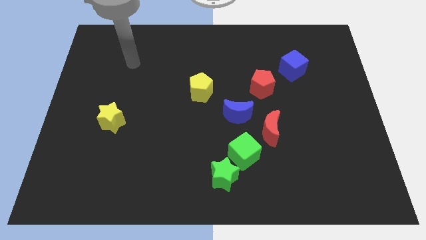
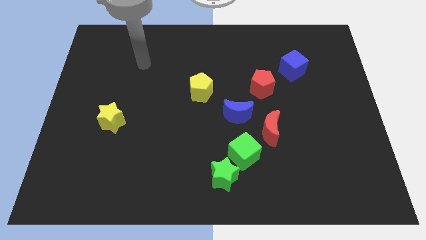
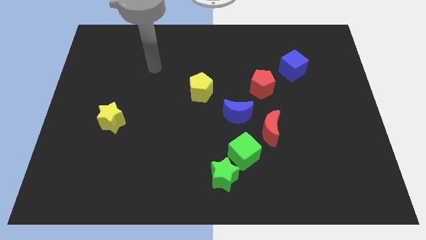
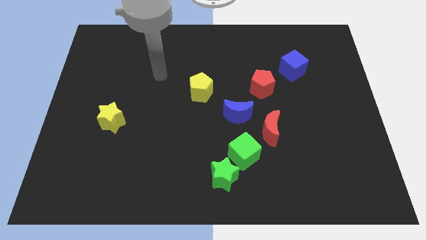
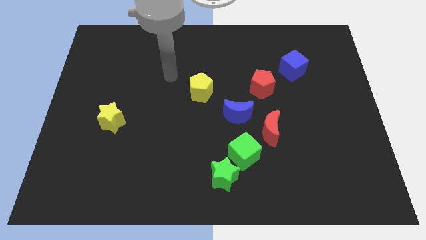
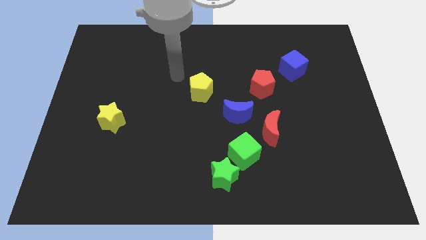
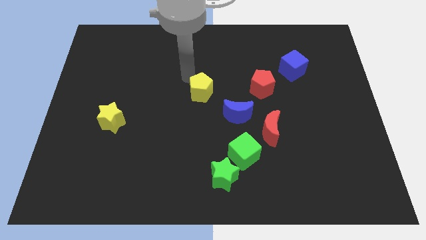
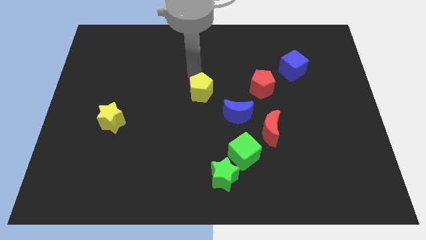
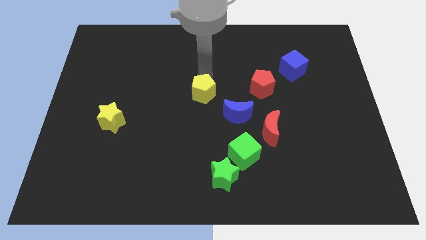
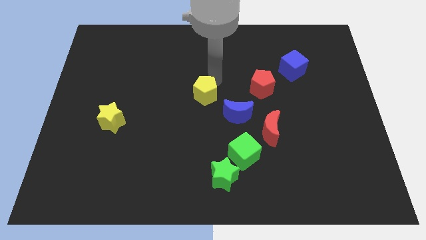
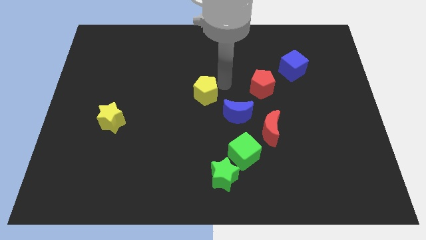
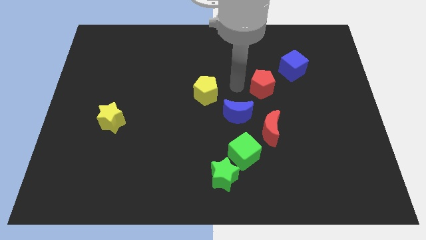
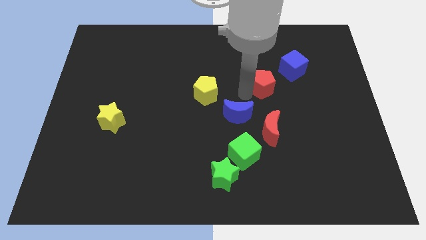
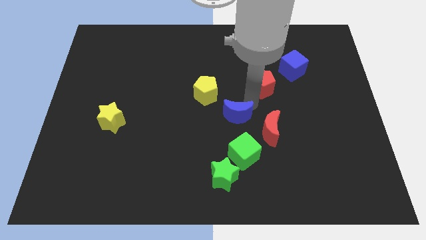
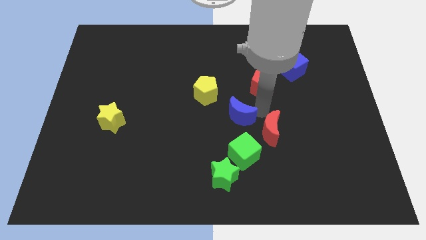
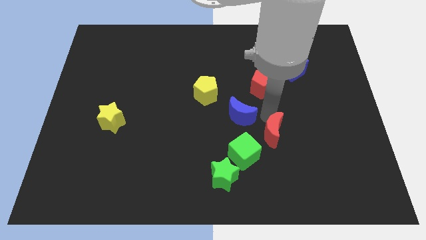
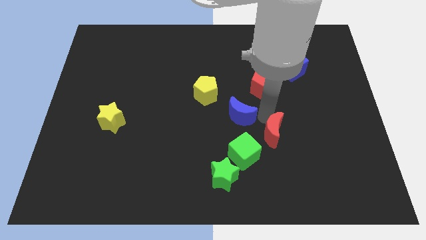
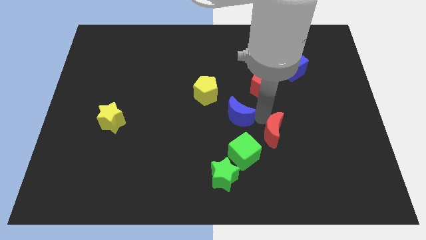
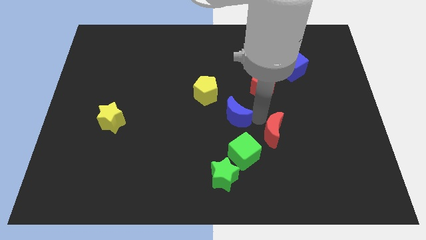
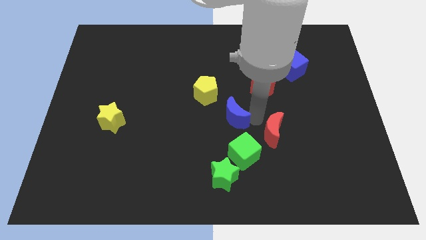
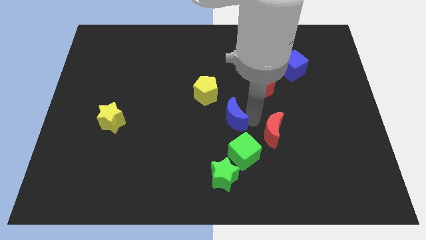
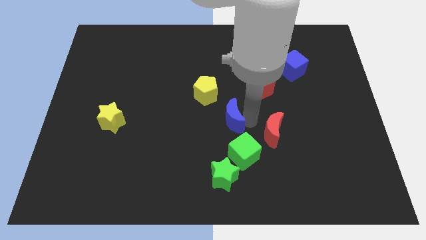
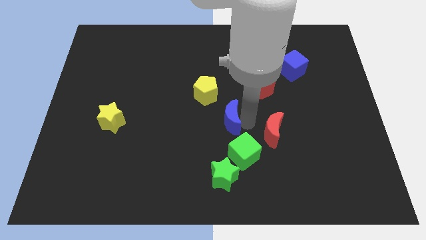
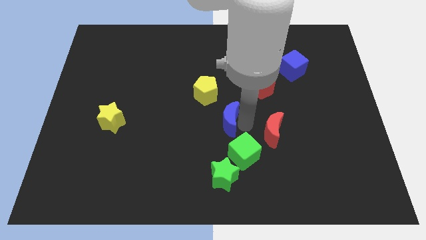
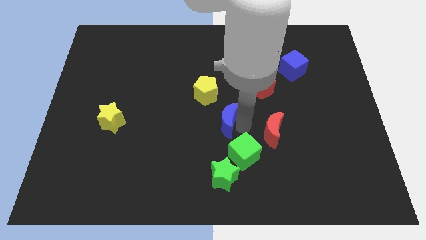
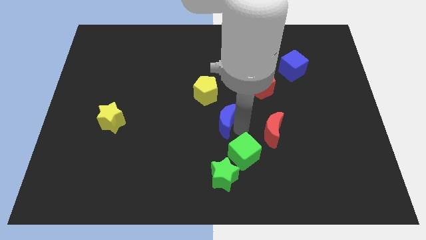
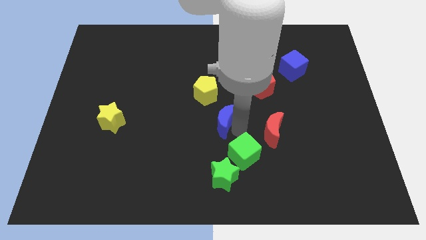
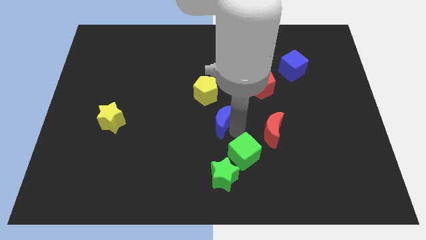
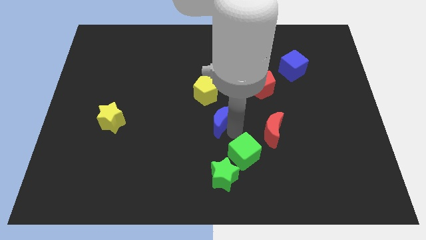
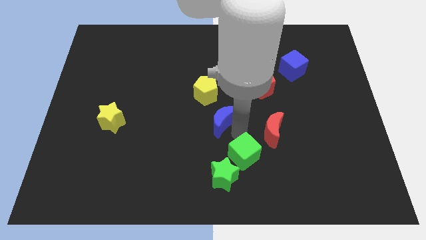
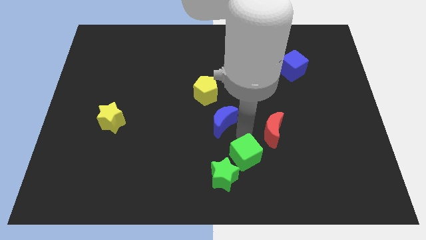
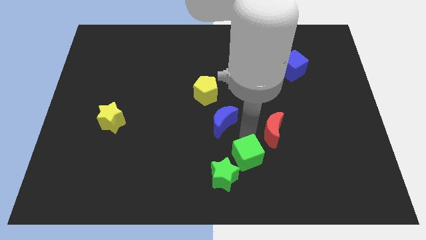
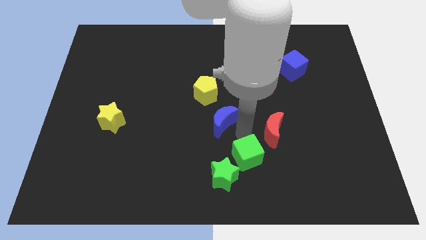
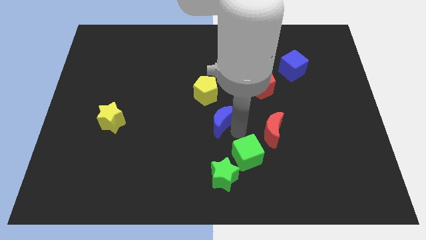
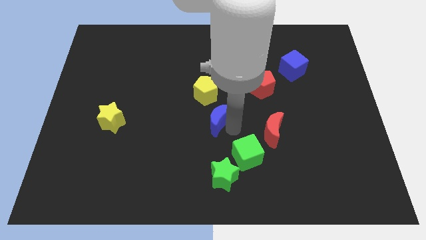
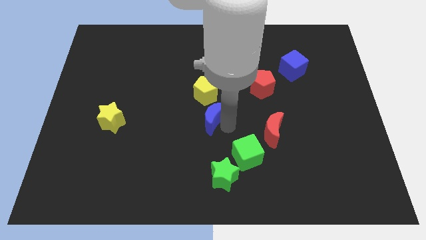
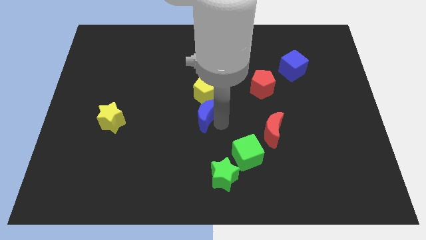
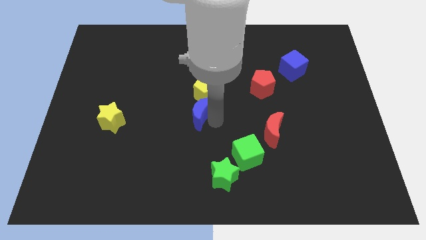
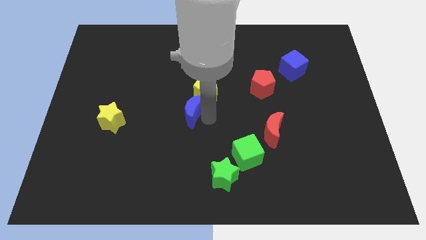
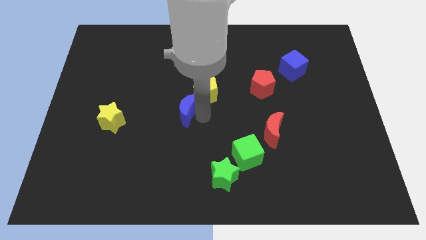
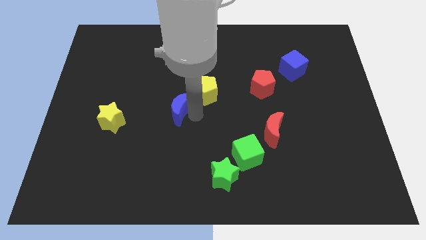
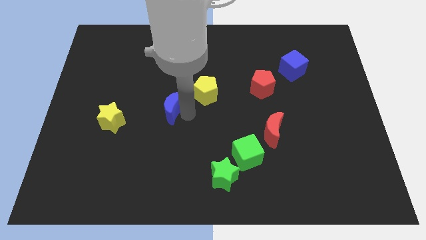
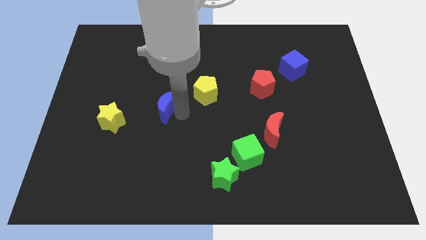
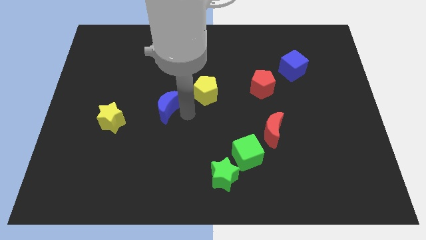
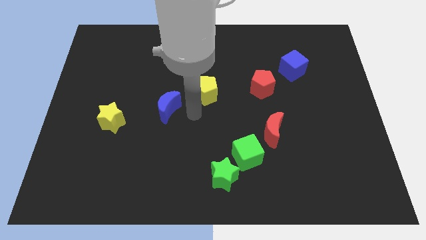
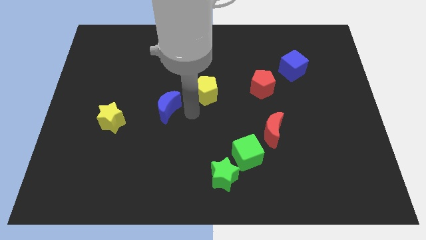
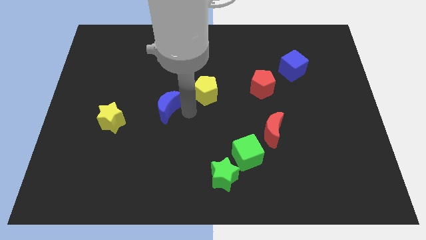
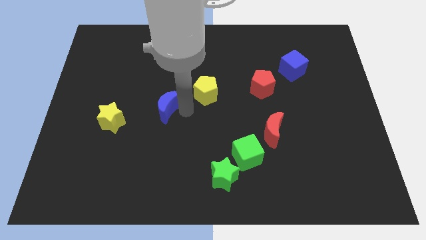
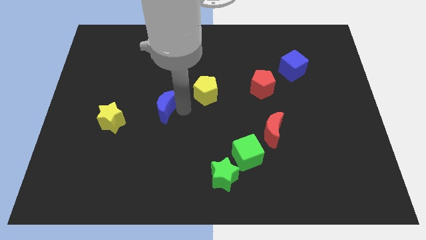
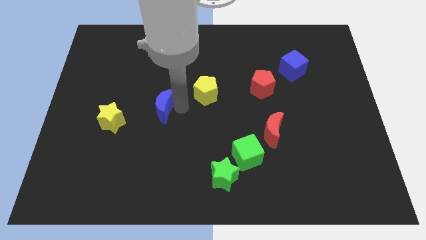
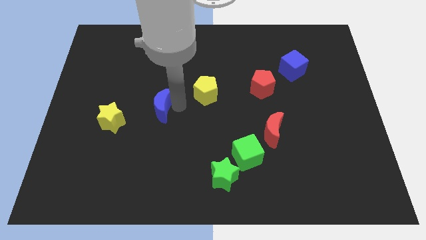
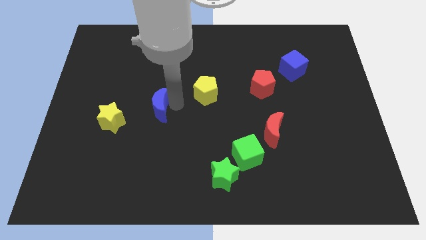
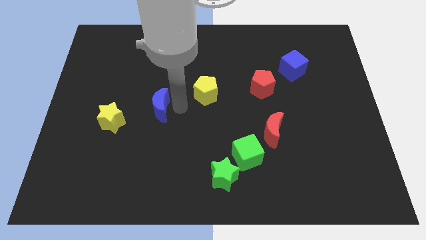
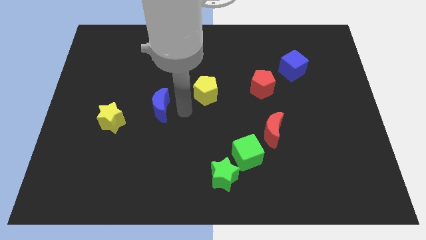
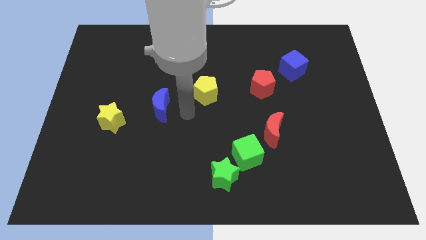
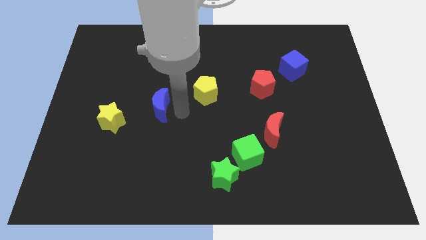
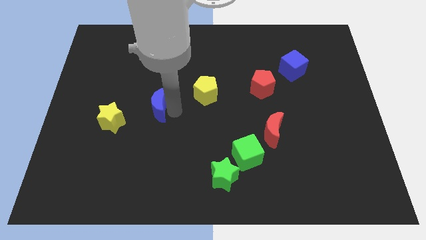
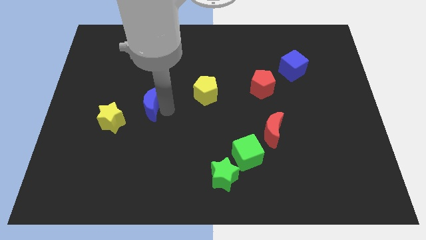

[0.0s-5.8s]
slide the blue moon diagonally up and to the right of the yellow star

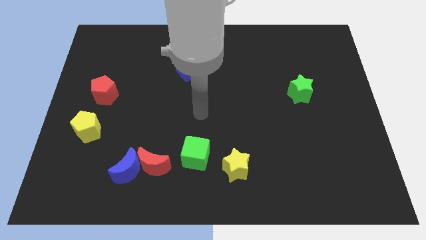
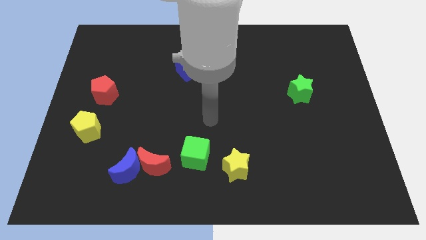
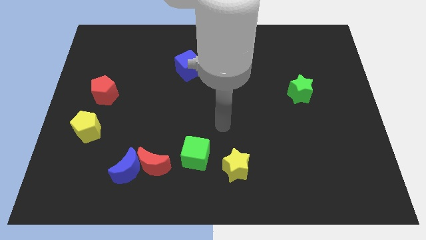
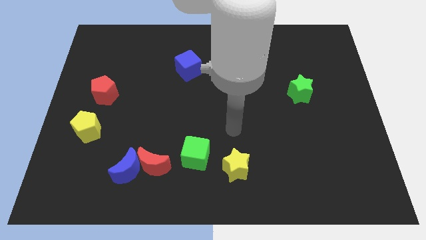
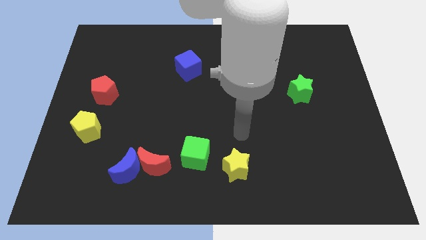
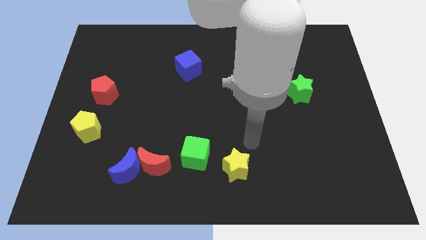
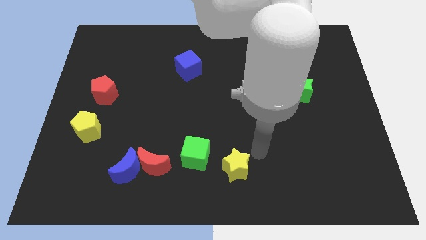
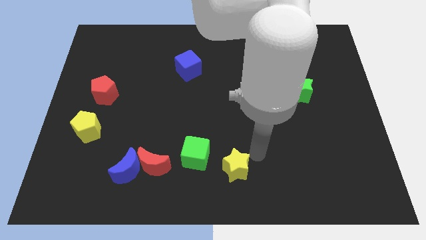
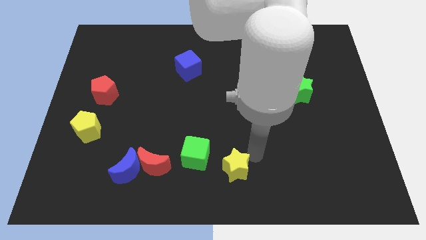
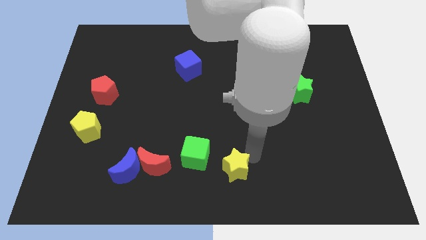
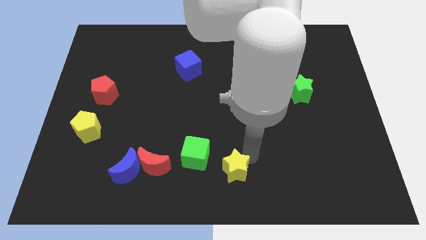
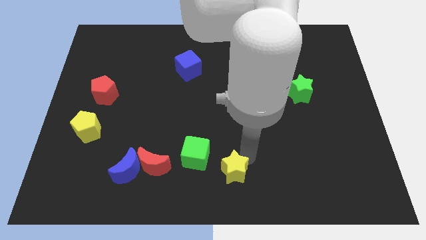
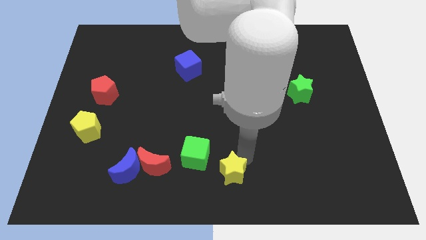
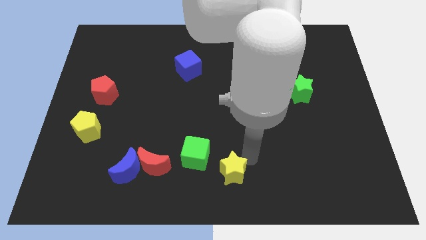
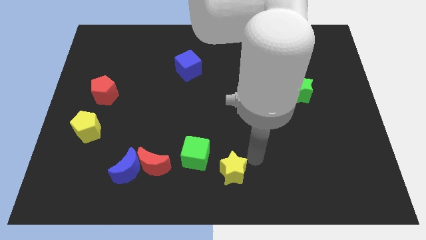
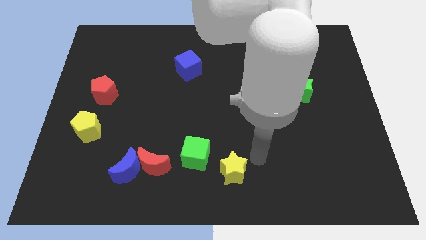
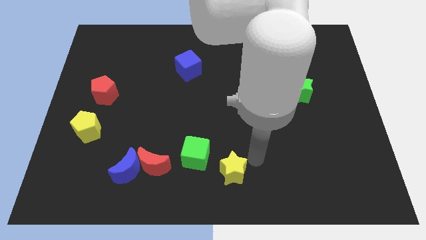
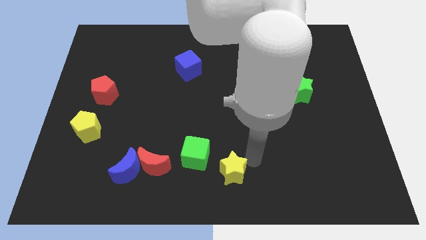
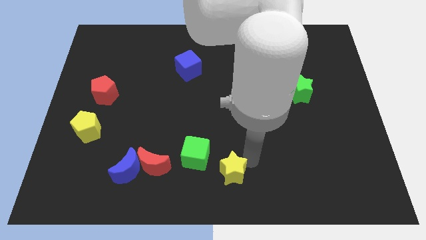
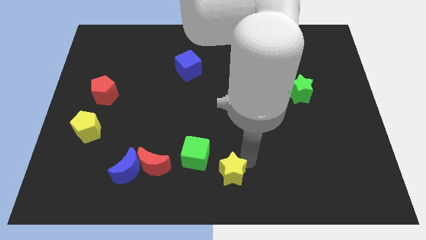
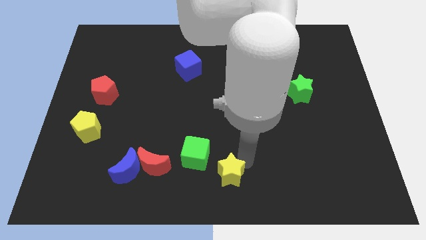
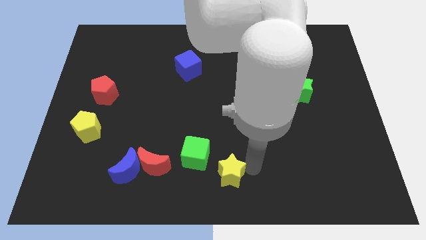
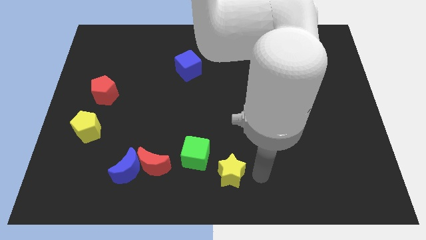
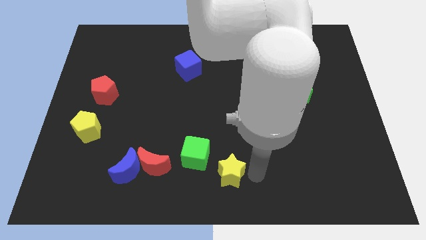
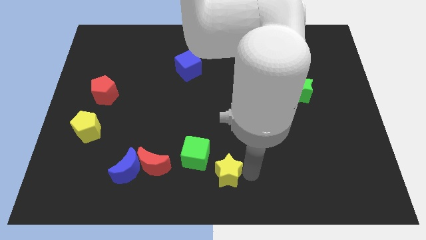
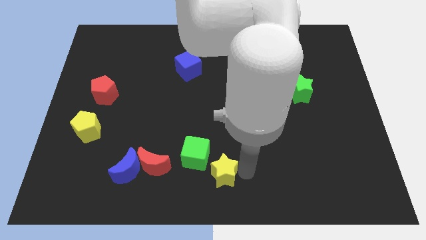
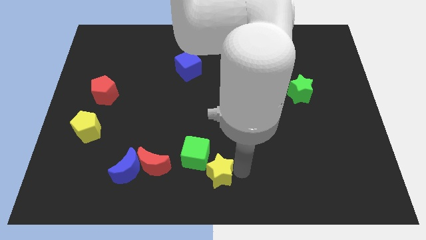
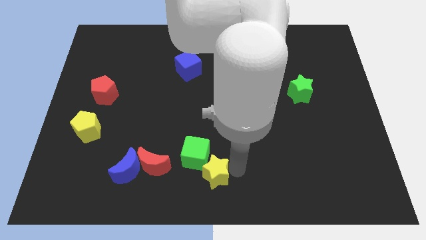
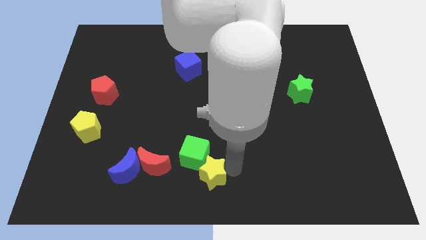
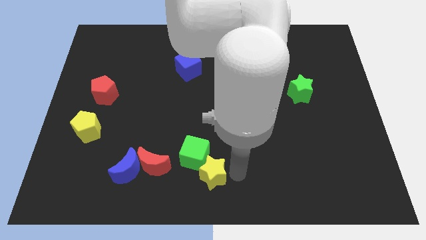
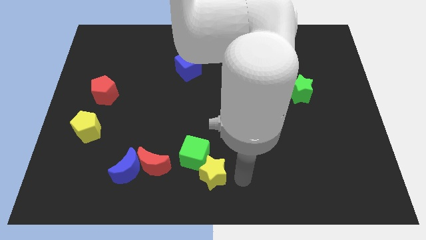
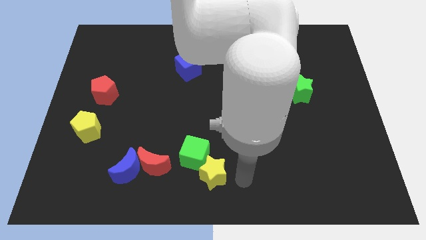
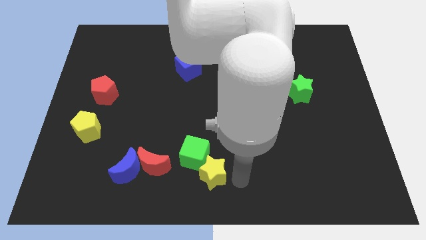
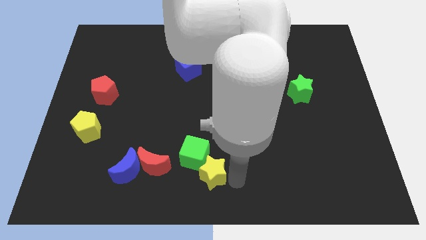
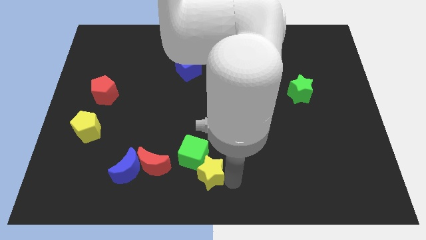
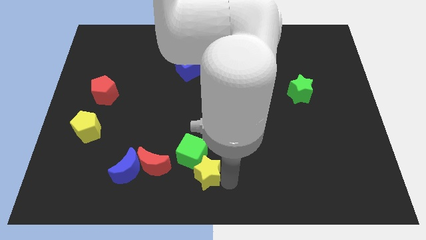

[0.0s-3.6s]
push the yellow star to the right of the blue moon
